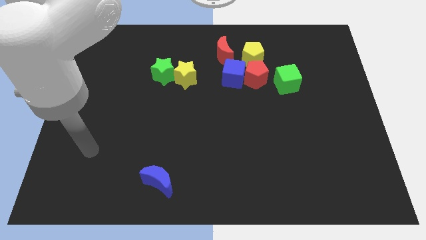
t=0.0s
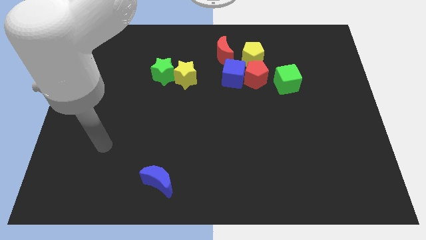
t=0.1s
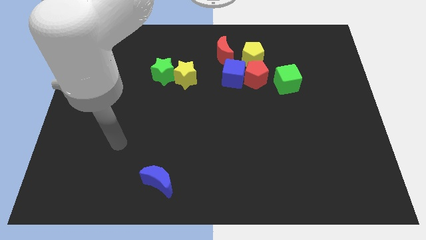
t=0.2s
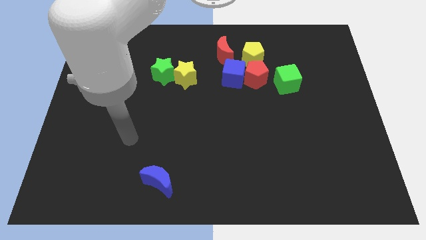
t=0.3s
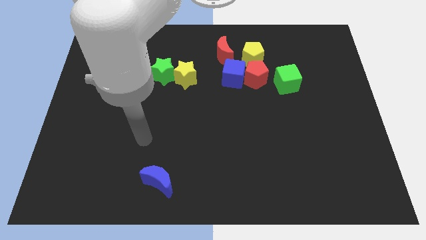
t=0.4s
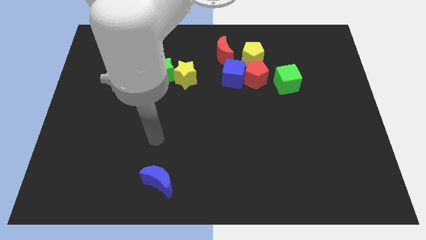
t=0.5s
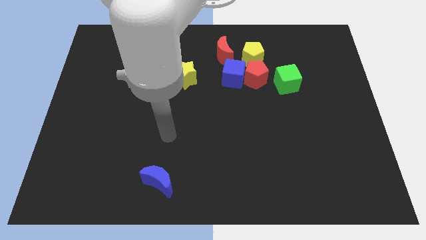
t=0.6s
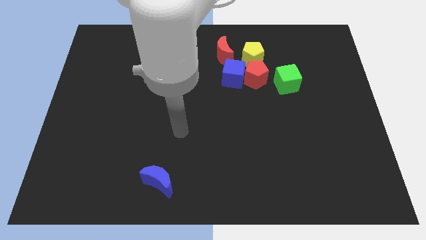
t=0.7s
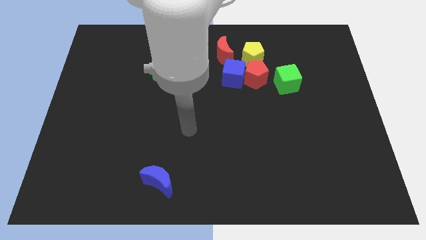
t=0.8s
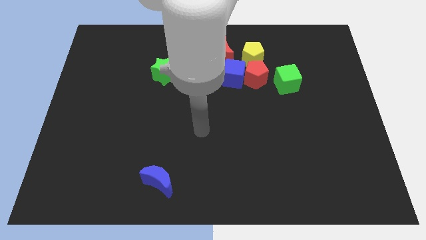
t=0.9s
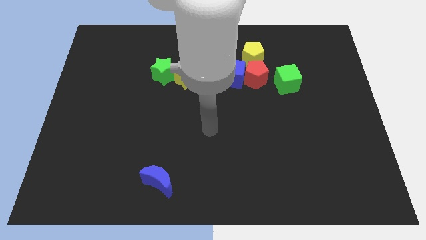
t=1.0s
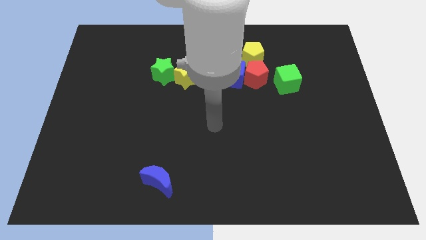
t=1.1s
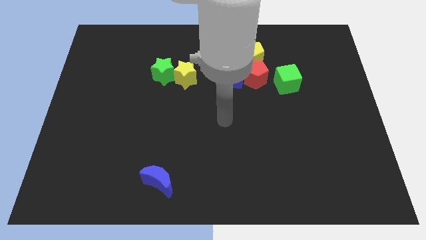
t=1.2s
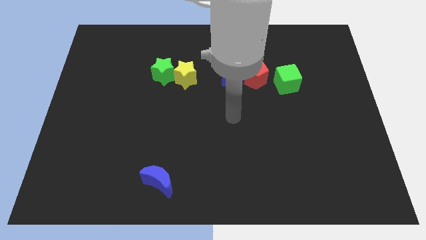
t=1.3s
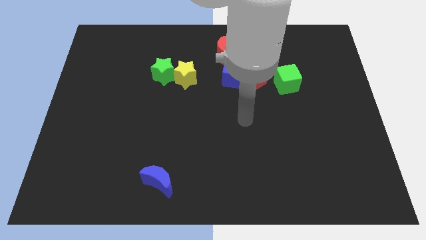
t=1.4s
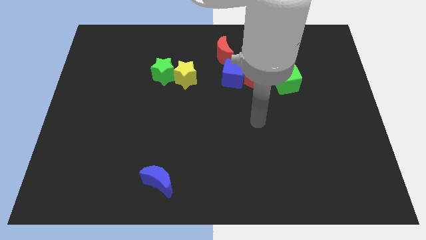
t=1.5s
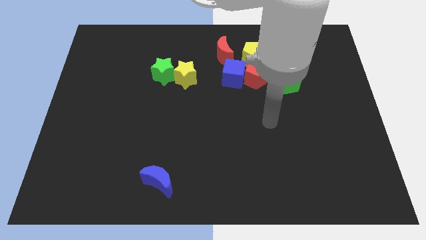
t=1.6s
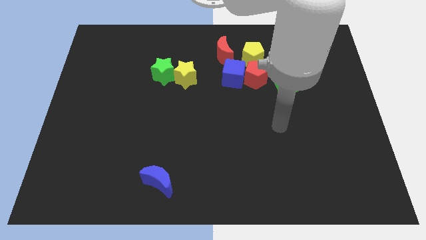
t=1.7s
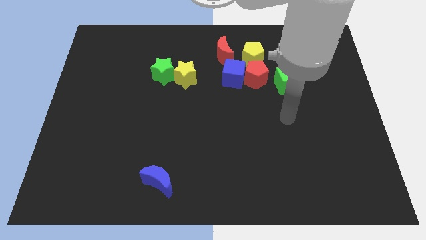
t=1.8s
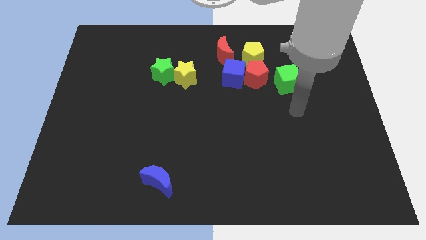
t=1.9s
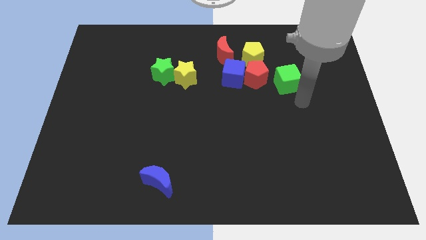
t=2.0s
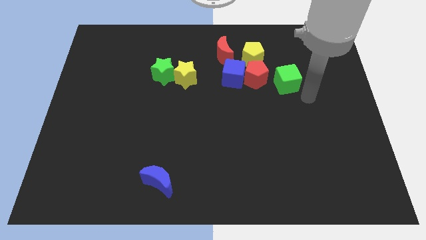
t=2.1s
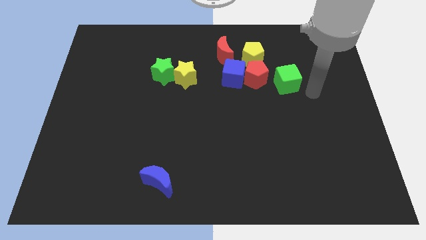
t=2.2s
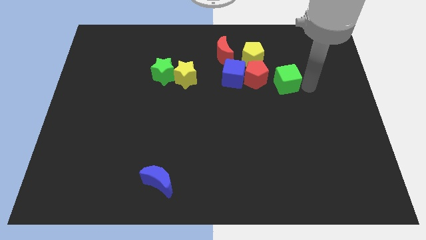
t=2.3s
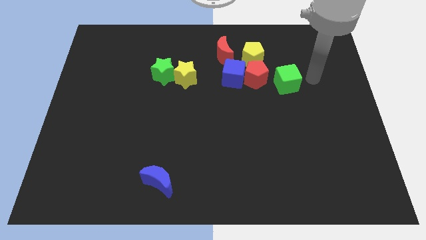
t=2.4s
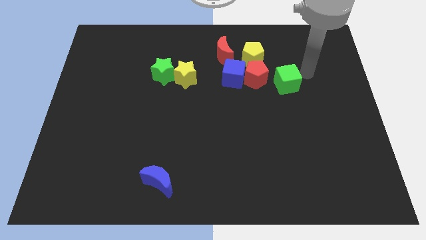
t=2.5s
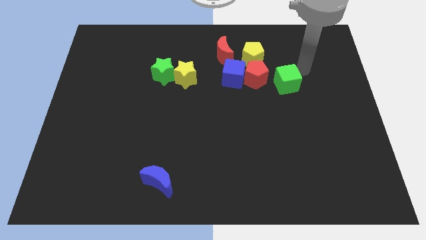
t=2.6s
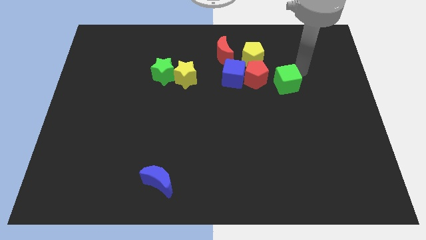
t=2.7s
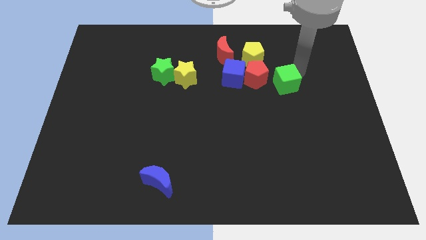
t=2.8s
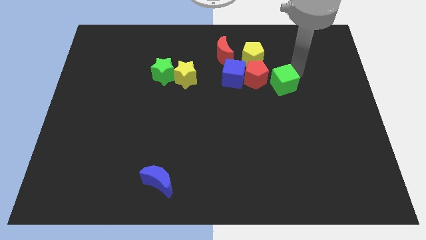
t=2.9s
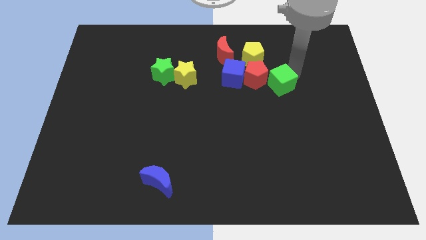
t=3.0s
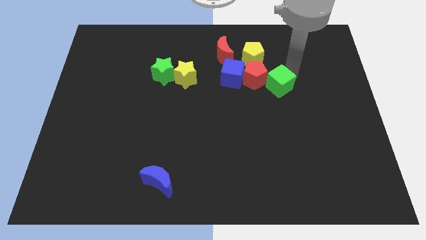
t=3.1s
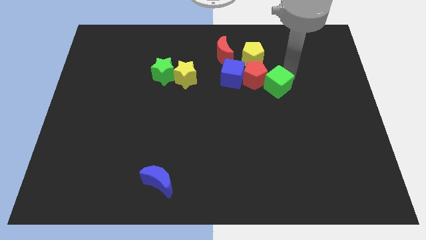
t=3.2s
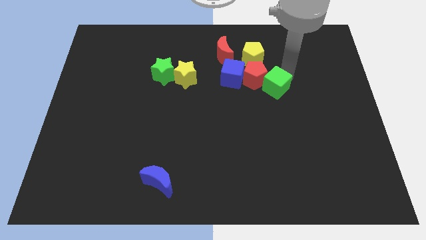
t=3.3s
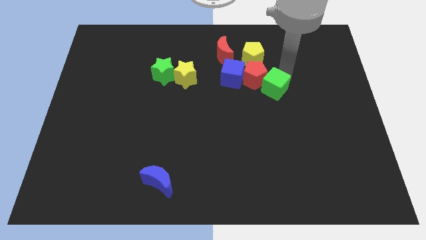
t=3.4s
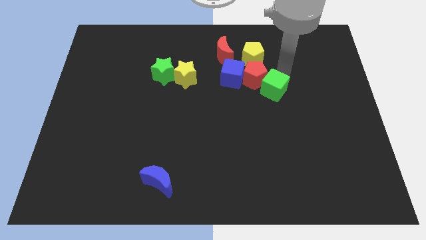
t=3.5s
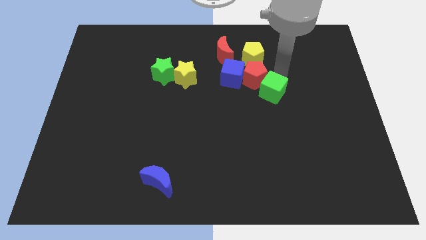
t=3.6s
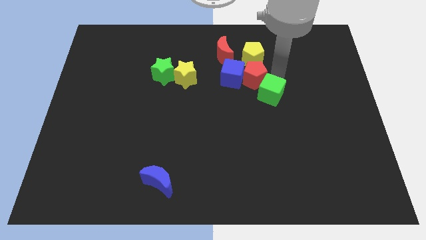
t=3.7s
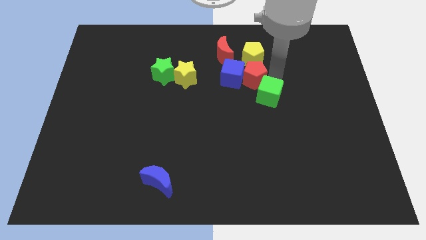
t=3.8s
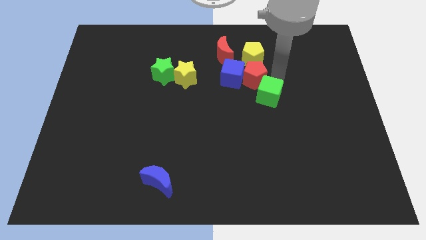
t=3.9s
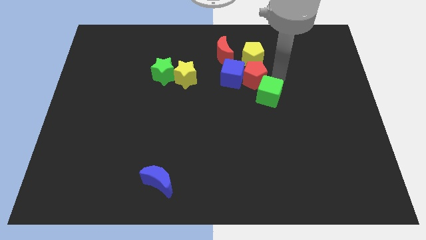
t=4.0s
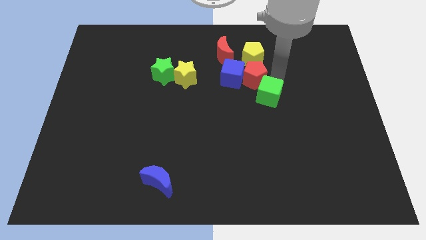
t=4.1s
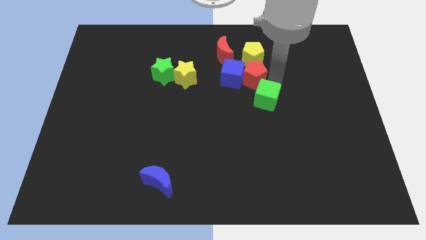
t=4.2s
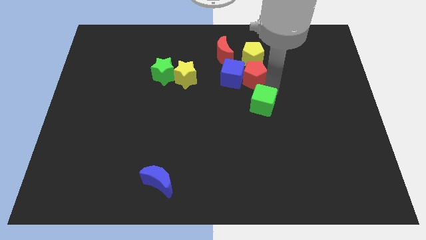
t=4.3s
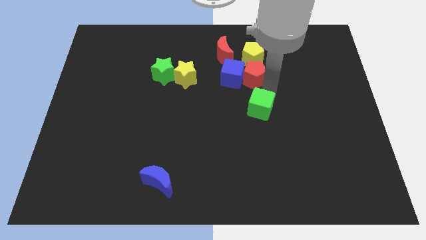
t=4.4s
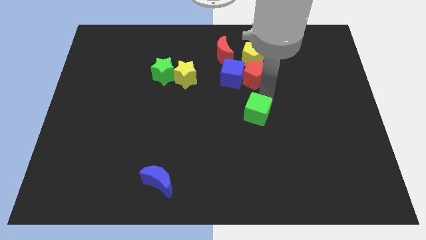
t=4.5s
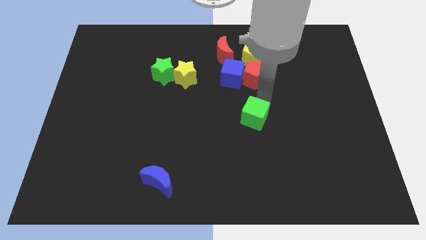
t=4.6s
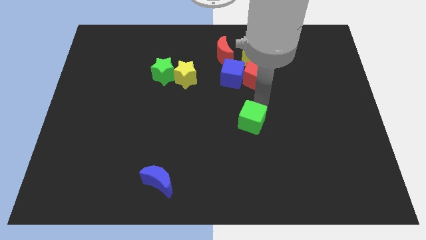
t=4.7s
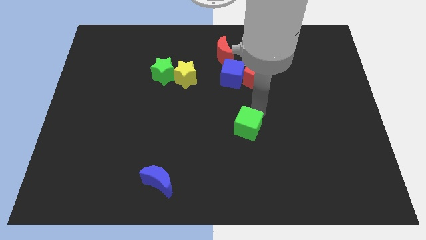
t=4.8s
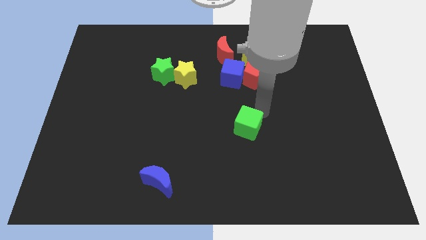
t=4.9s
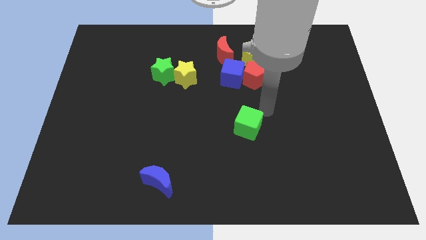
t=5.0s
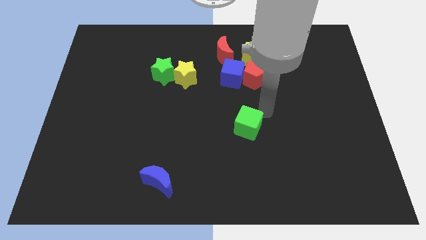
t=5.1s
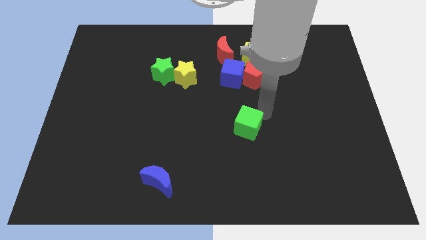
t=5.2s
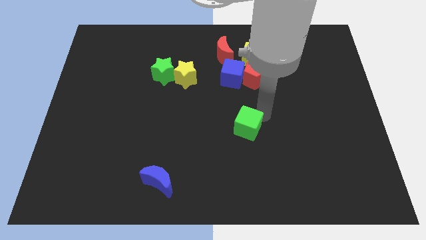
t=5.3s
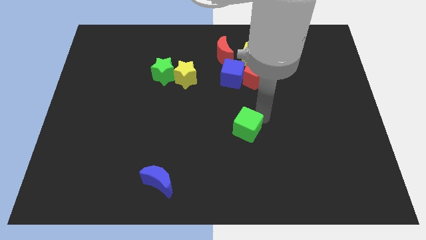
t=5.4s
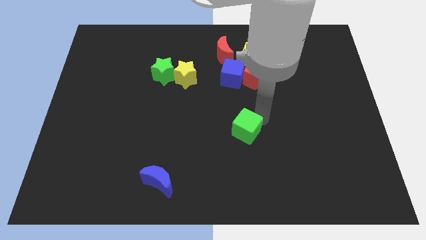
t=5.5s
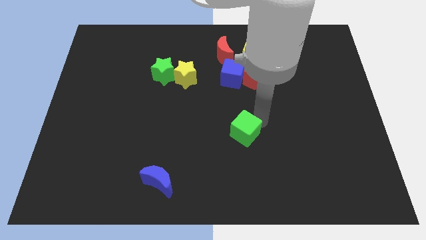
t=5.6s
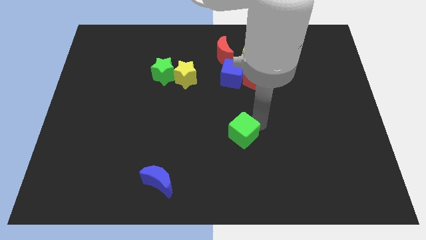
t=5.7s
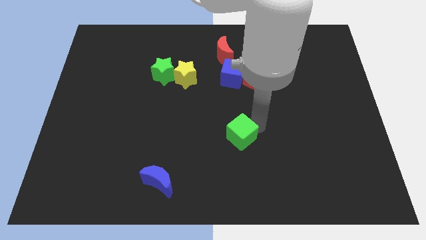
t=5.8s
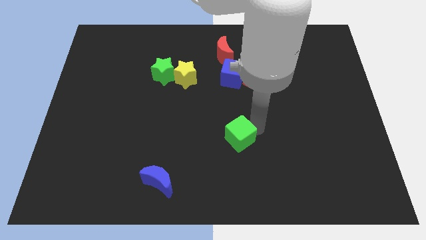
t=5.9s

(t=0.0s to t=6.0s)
slide the green cube downwards and to the left diagonally

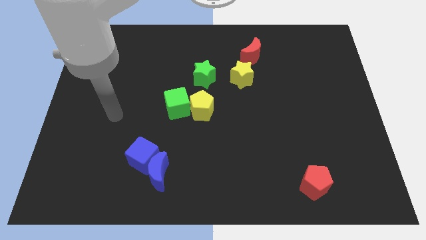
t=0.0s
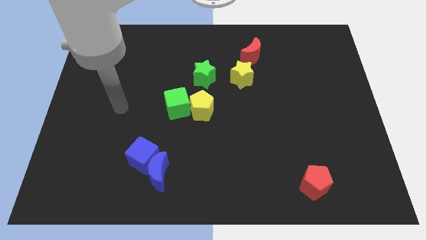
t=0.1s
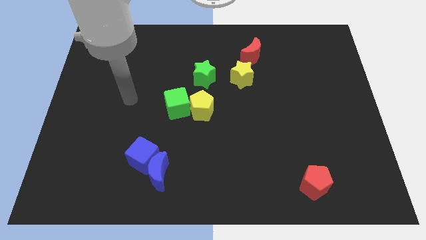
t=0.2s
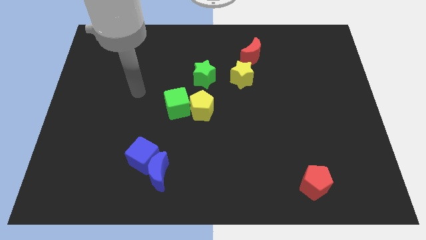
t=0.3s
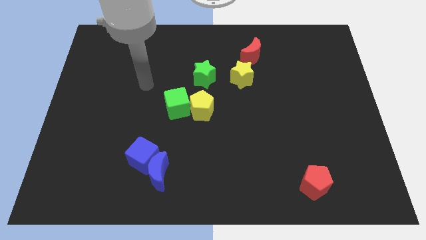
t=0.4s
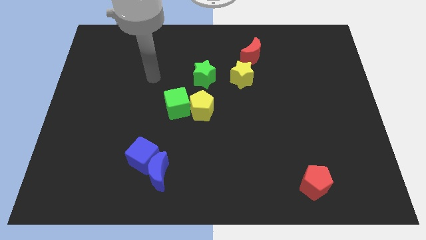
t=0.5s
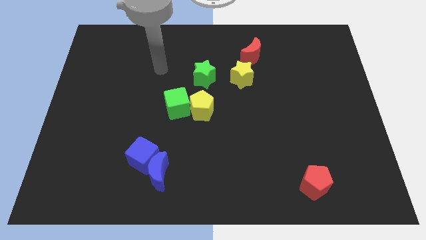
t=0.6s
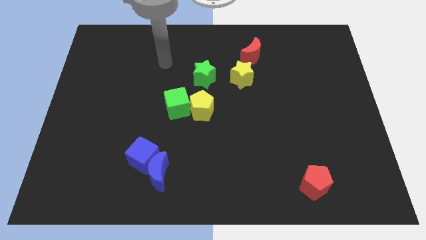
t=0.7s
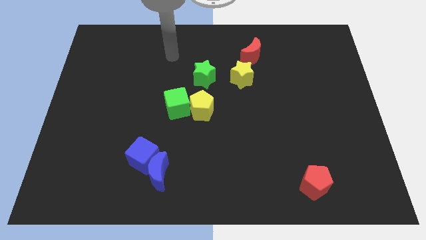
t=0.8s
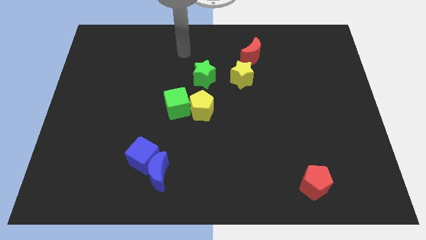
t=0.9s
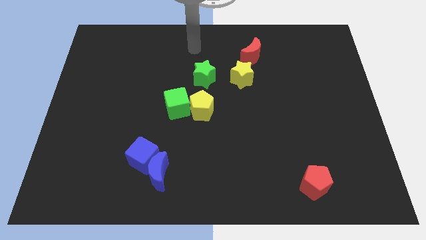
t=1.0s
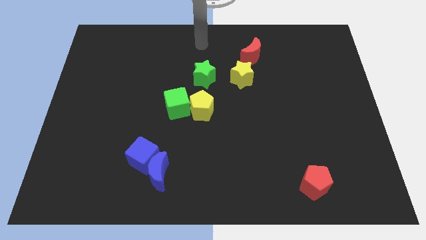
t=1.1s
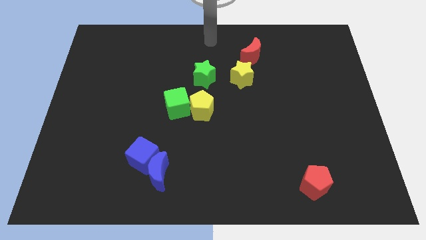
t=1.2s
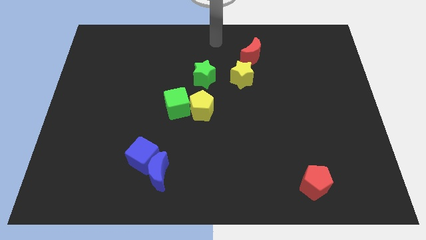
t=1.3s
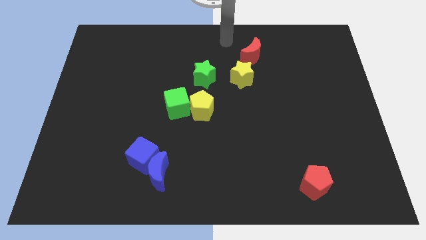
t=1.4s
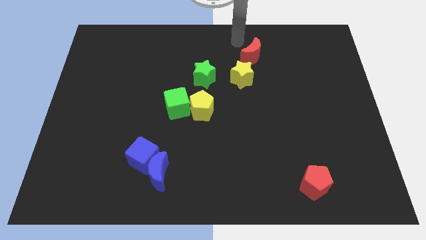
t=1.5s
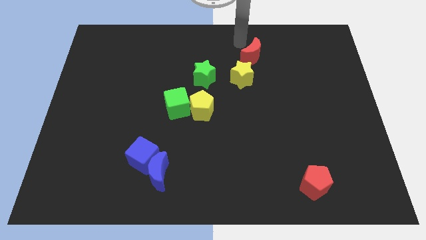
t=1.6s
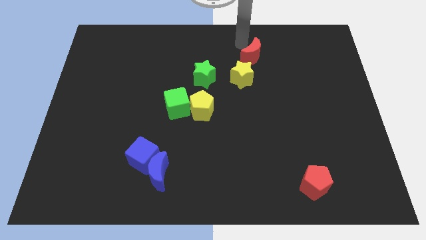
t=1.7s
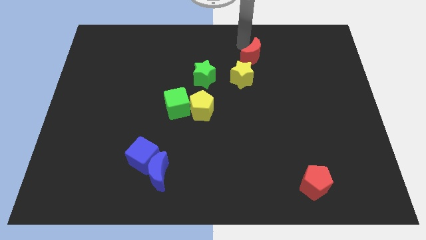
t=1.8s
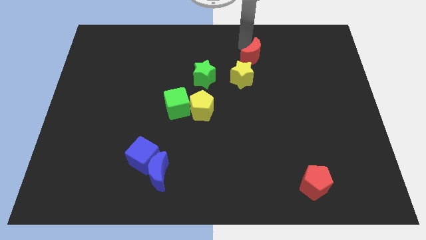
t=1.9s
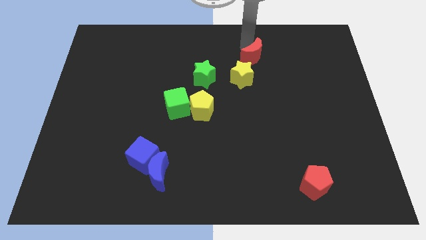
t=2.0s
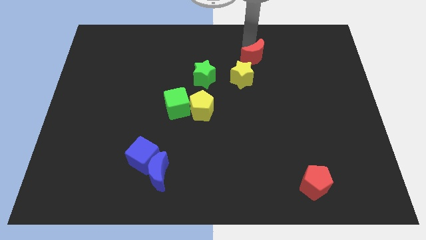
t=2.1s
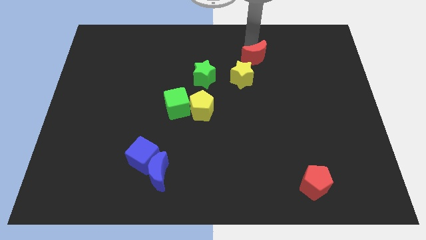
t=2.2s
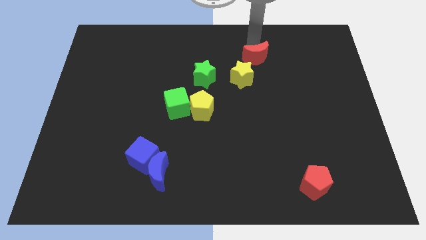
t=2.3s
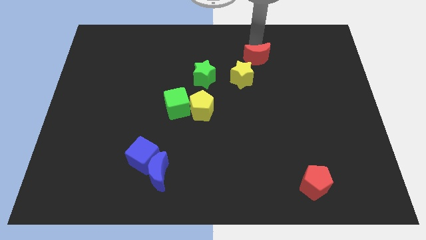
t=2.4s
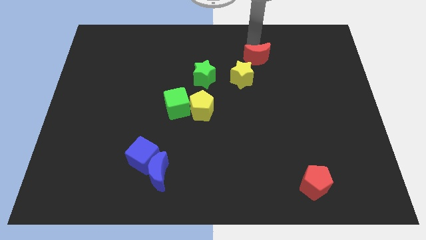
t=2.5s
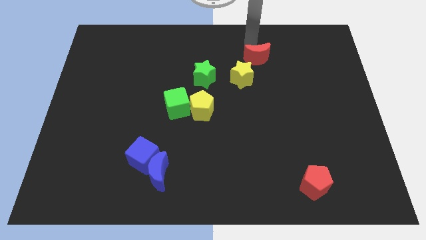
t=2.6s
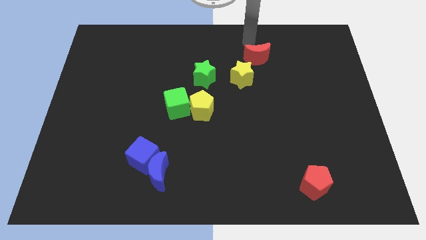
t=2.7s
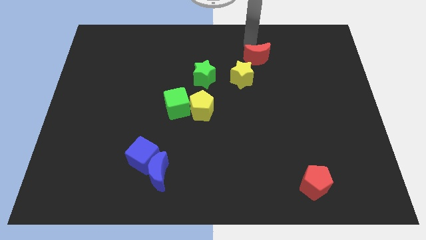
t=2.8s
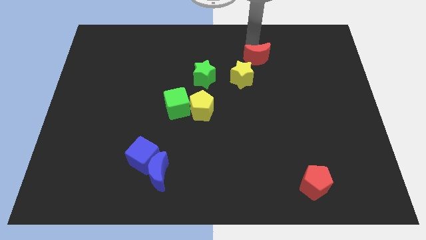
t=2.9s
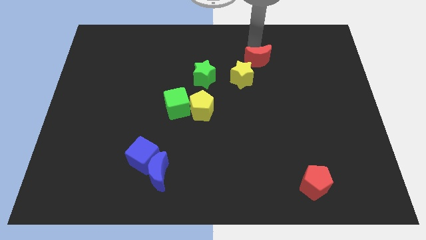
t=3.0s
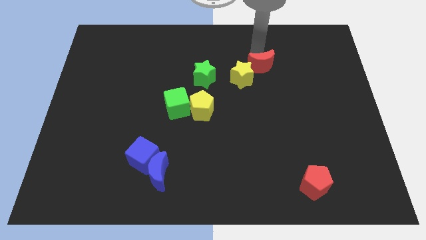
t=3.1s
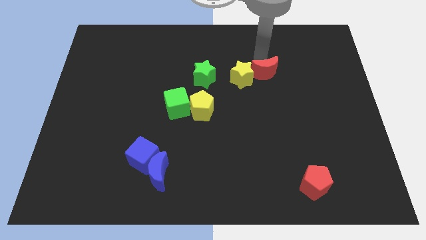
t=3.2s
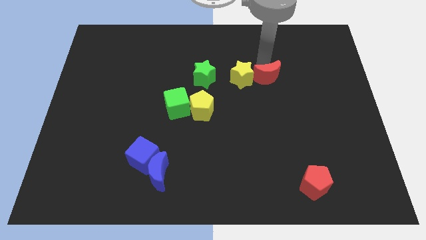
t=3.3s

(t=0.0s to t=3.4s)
move the red moon downwards slightly
